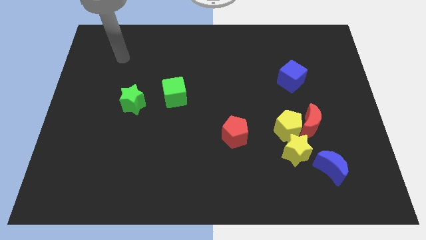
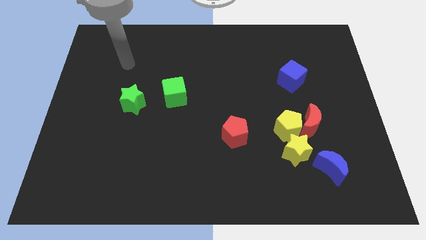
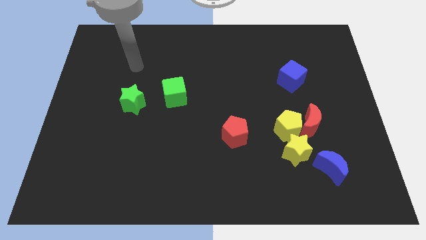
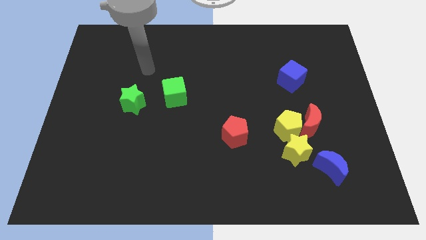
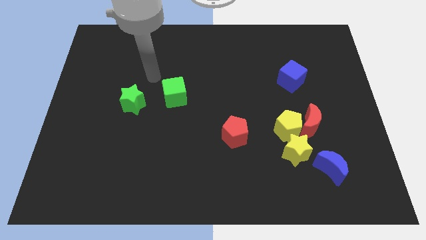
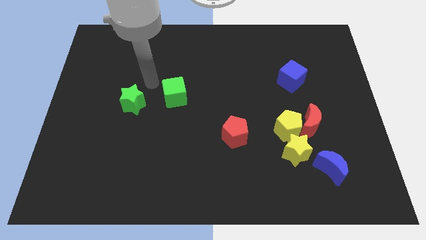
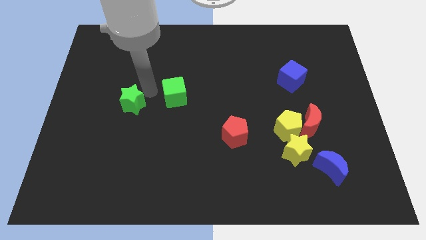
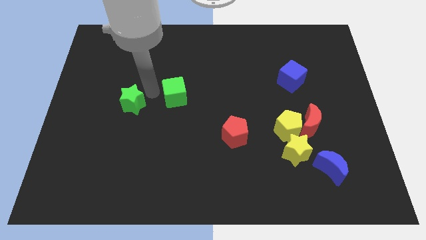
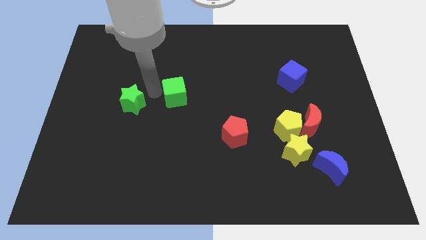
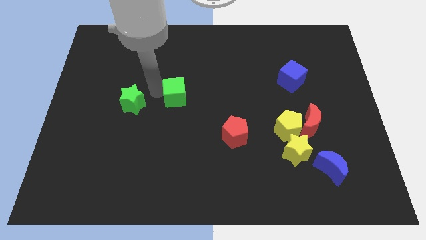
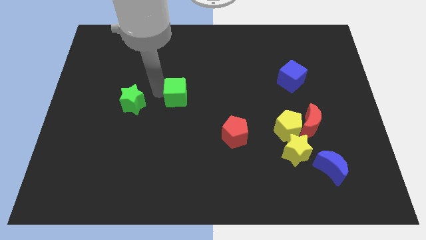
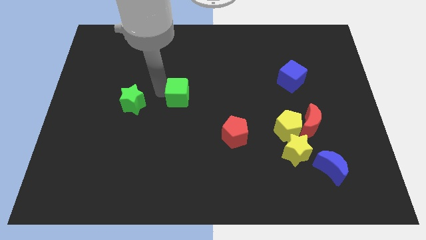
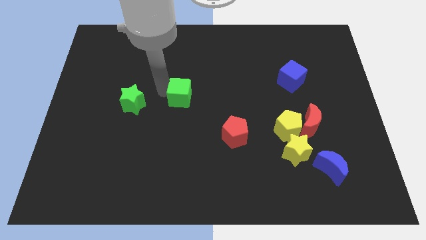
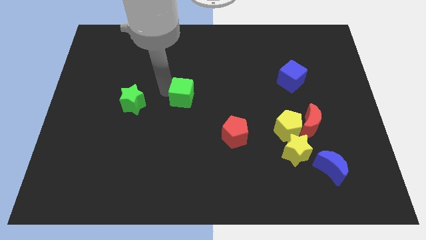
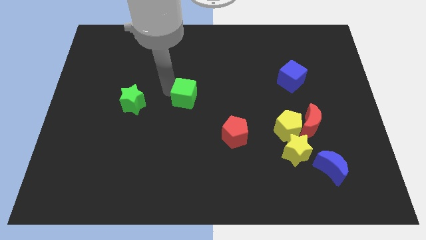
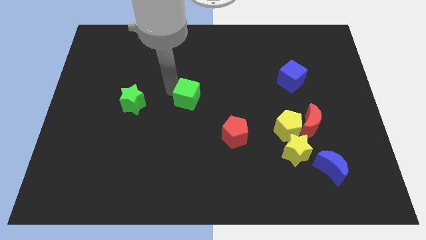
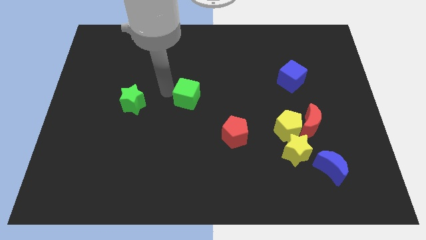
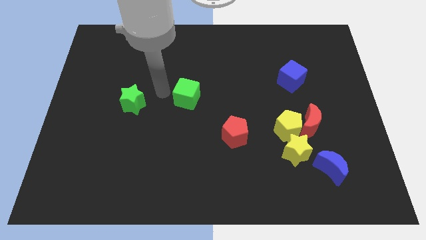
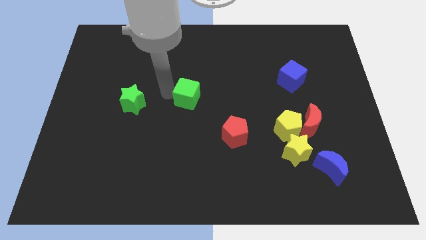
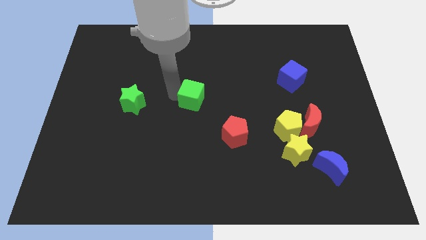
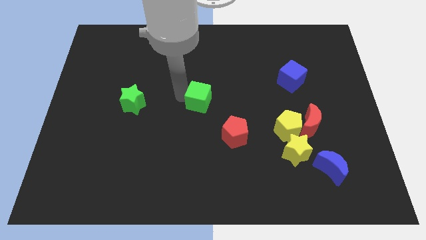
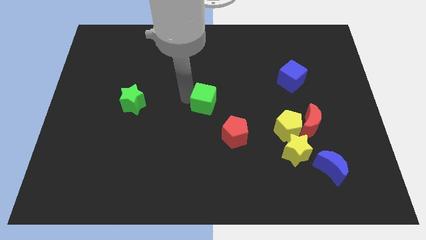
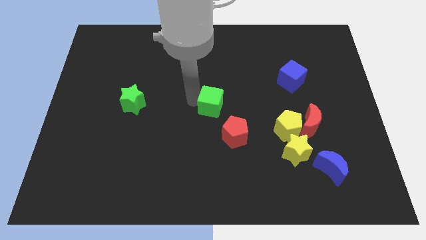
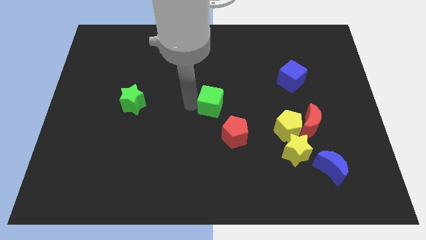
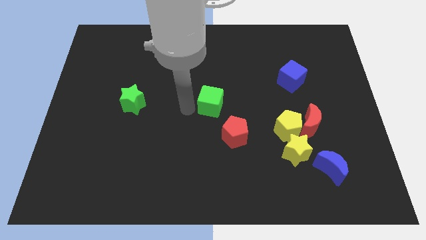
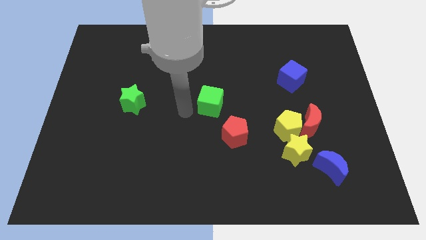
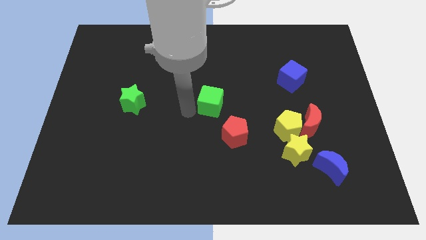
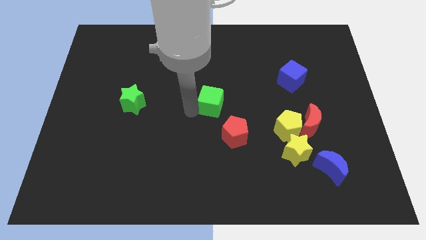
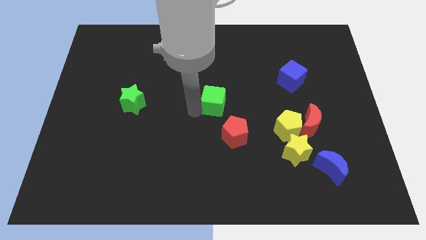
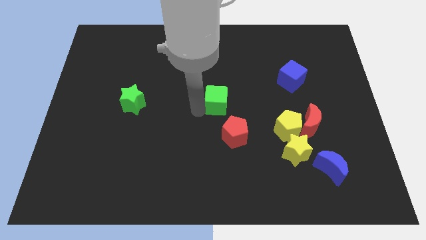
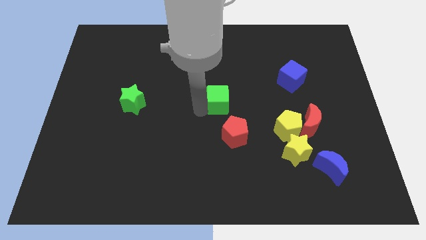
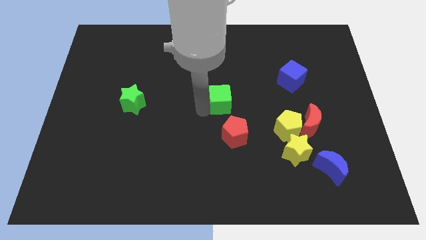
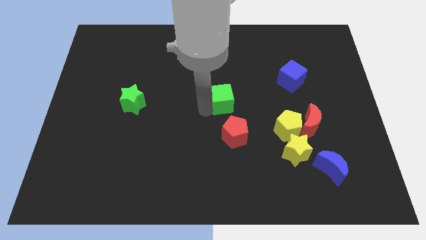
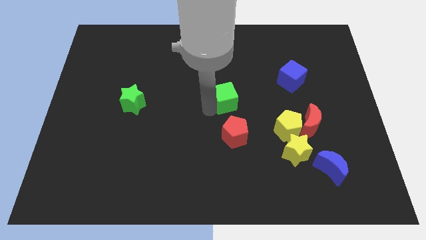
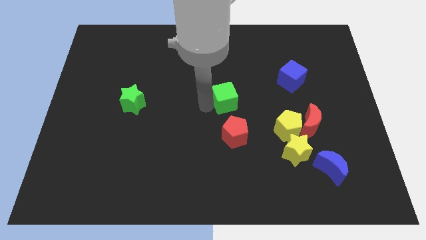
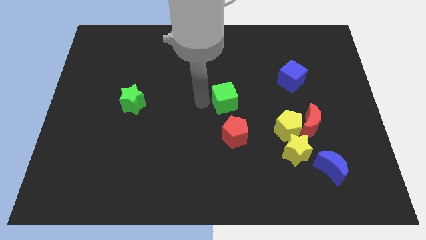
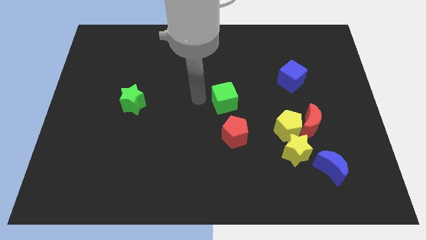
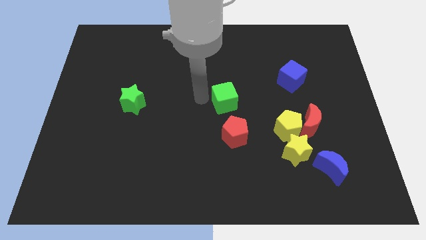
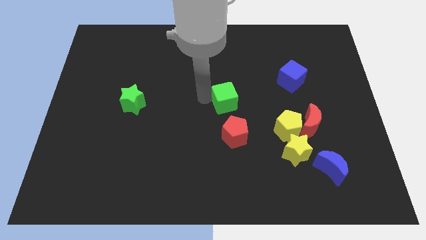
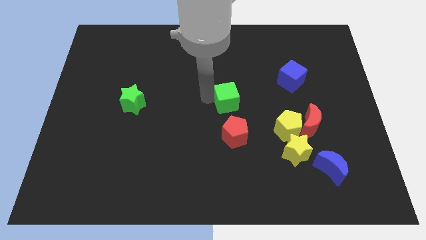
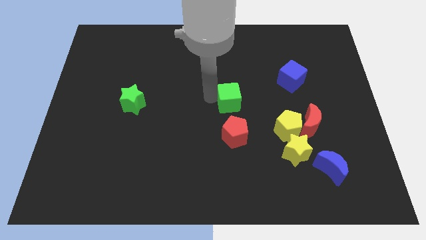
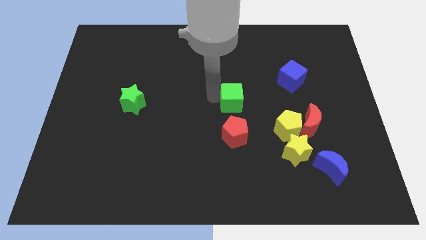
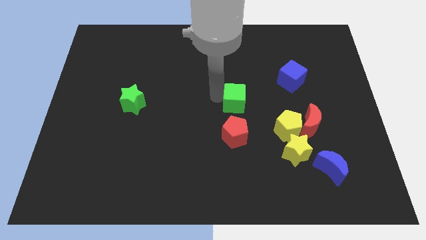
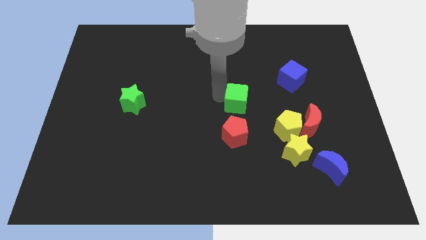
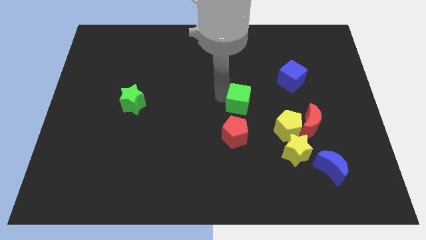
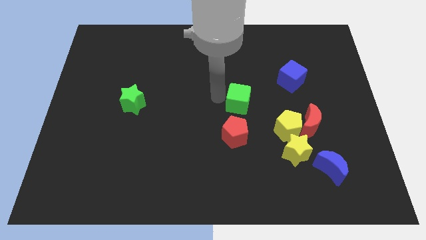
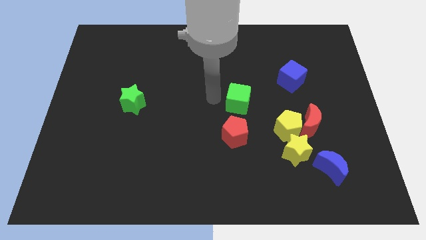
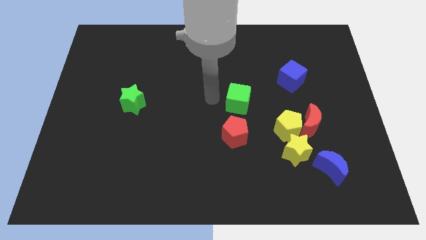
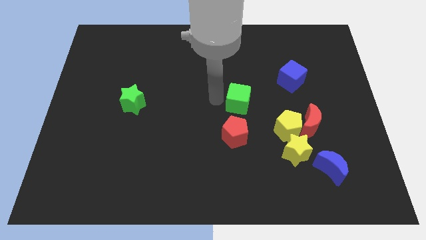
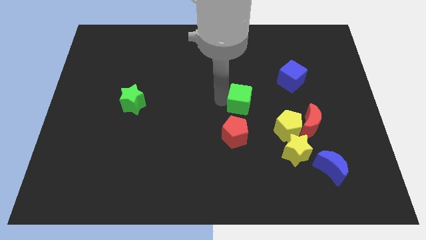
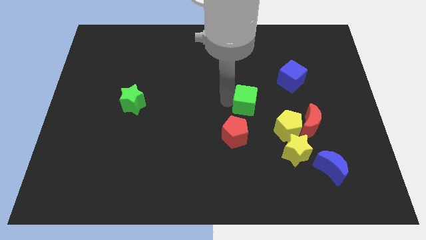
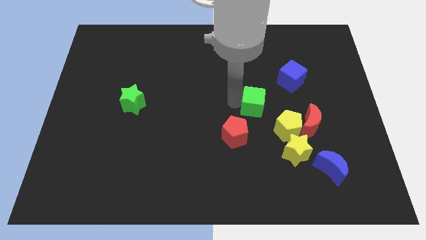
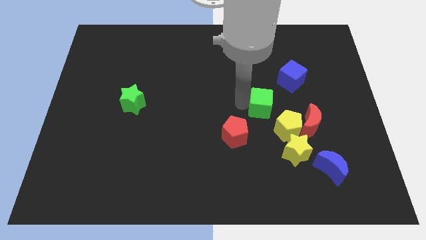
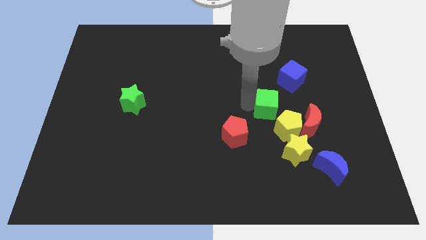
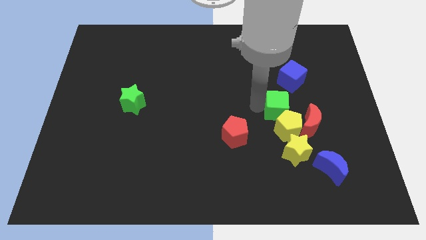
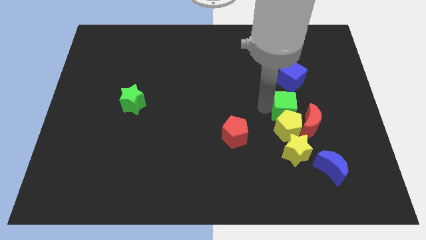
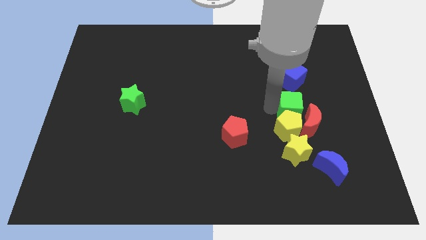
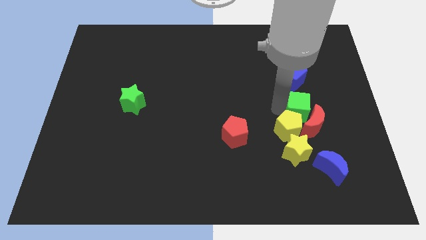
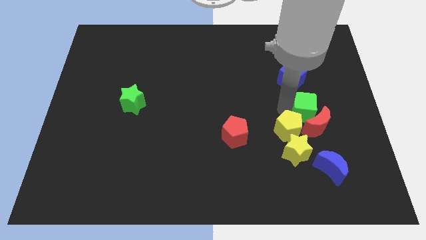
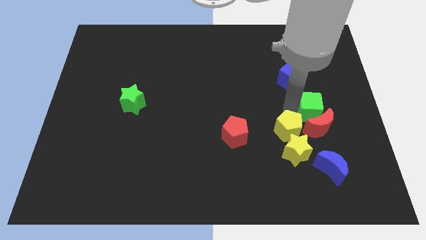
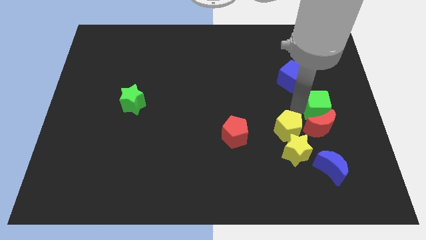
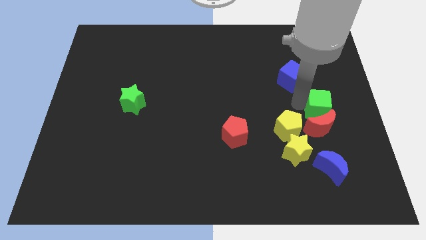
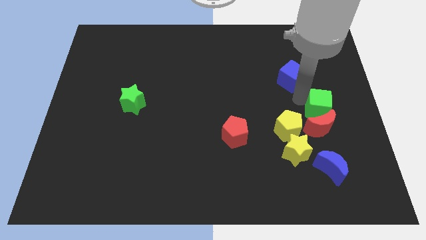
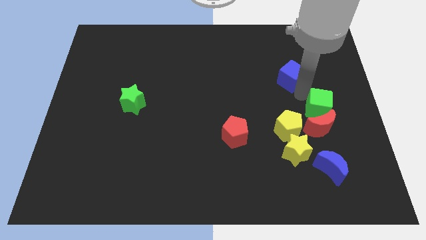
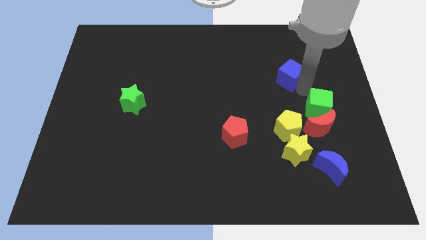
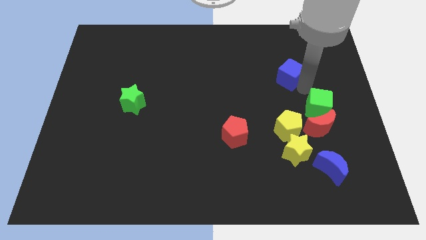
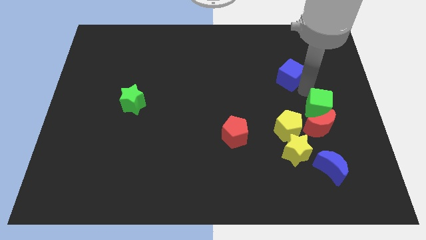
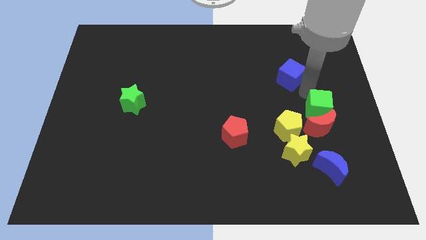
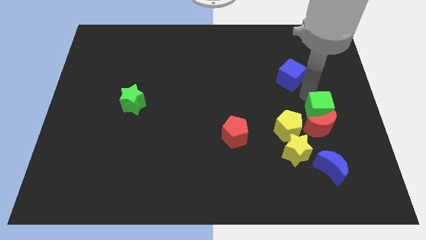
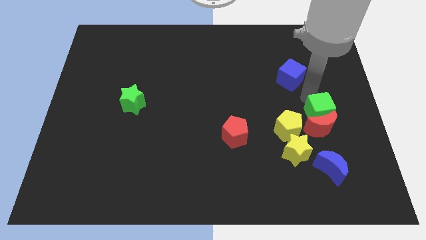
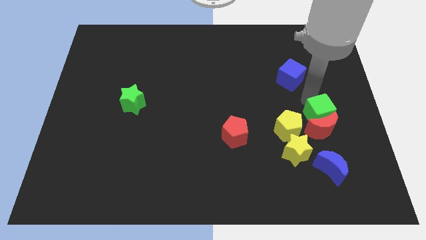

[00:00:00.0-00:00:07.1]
put the green cube to the right side of the yellow pentagon

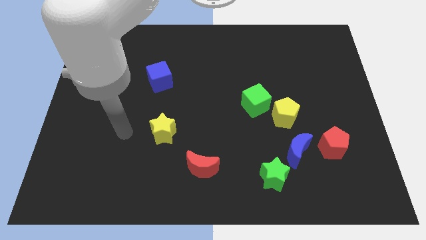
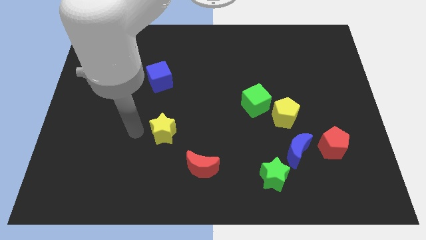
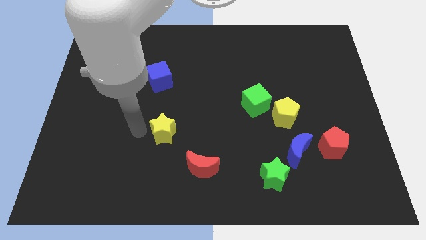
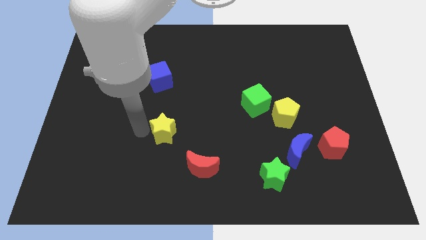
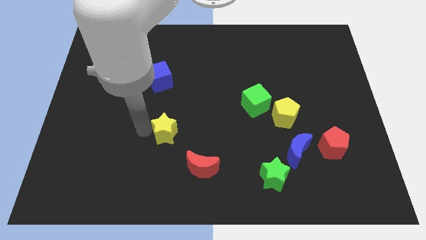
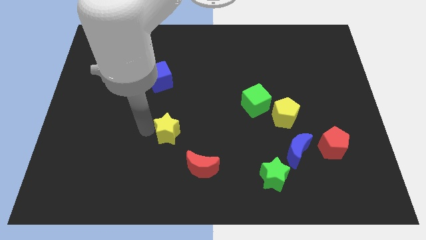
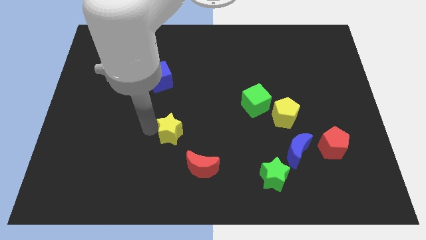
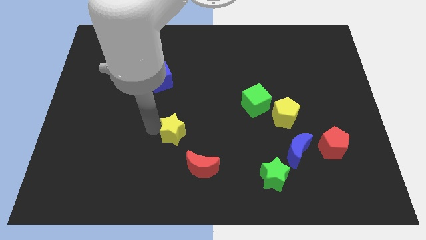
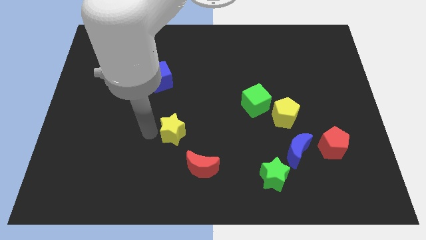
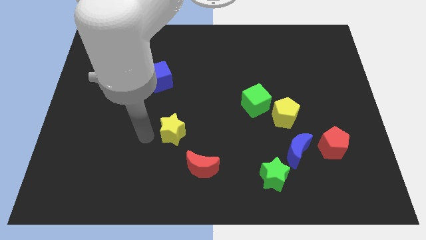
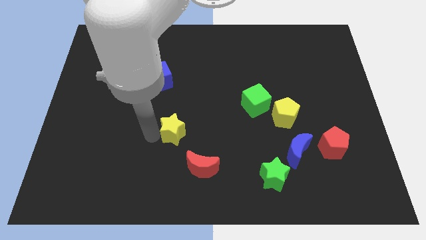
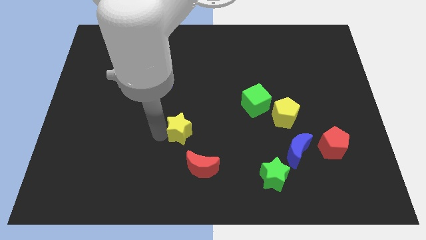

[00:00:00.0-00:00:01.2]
slide the yellow star to the top side of the red moon
